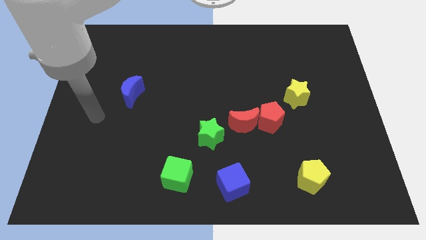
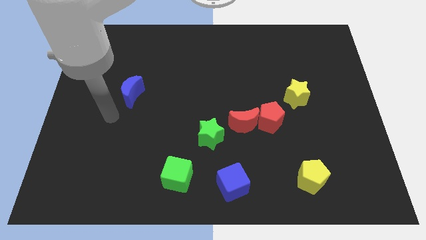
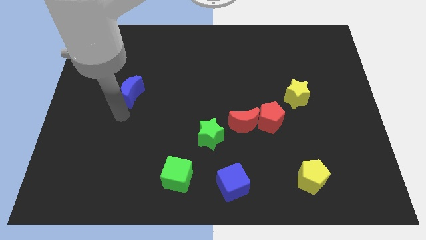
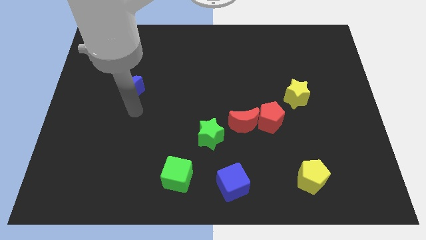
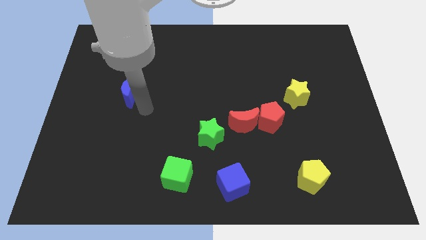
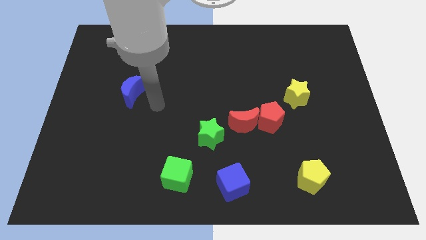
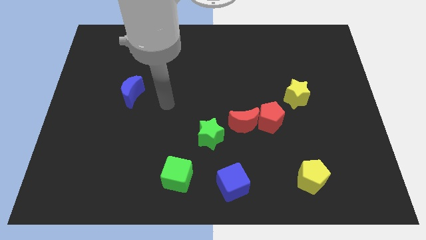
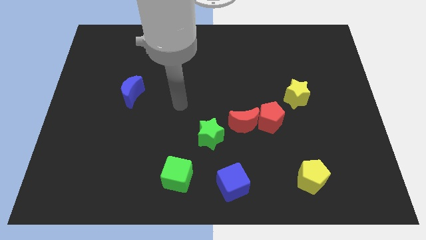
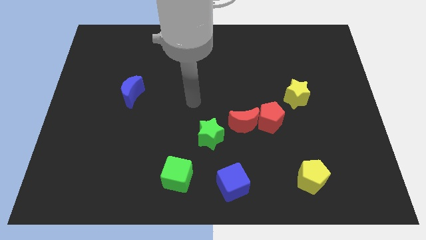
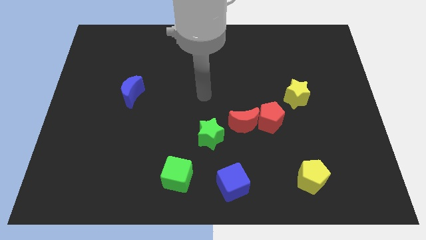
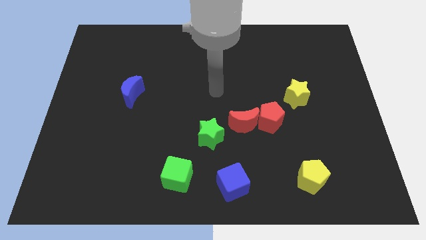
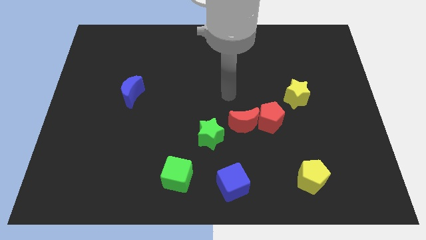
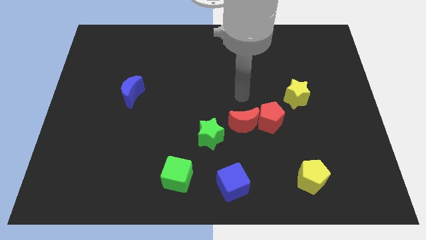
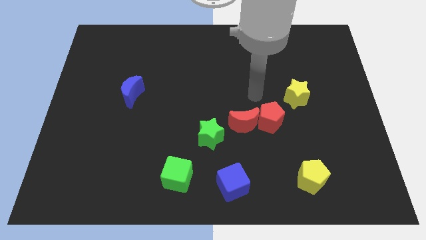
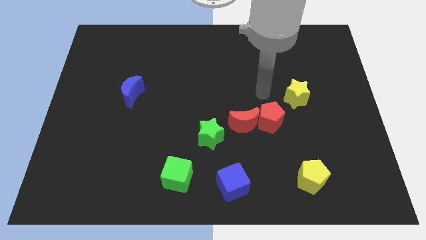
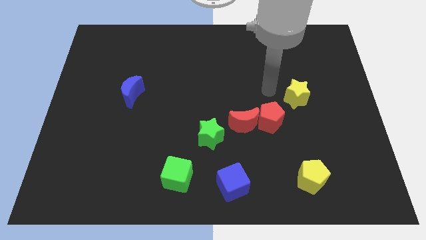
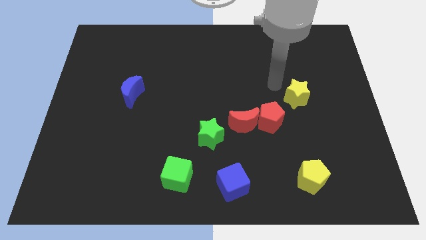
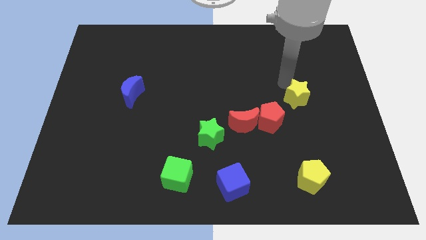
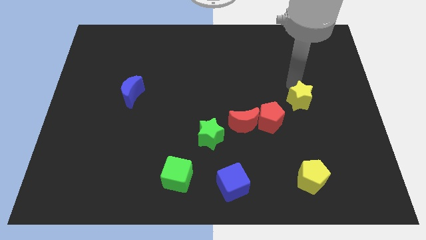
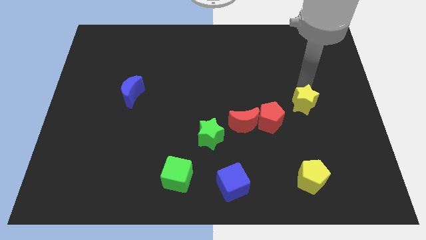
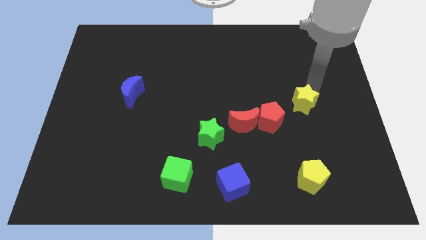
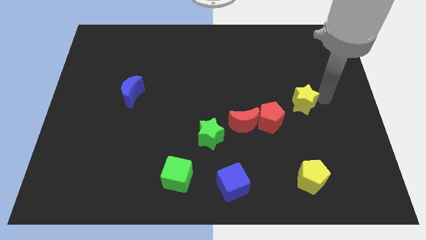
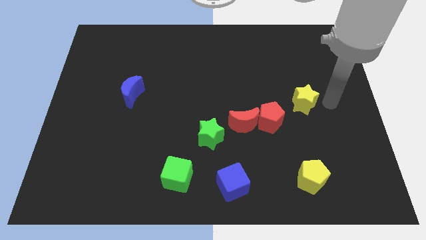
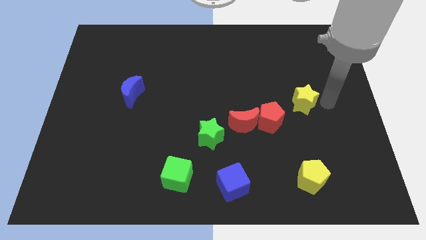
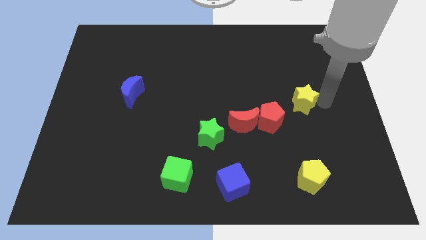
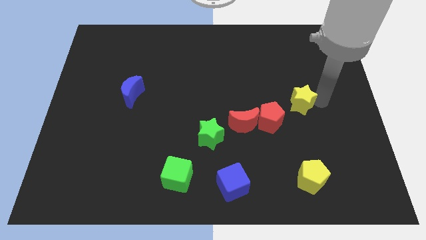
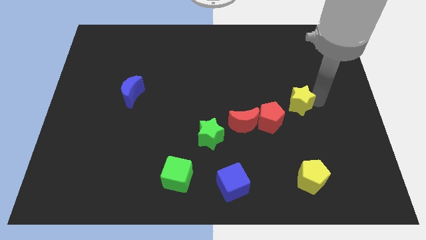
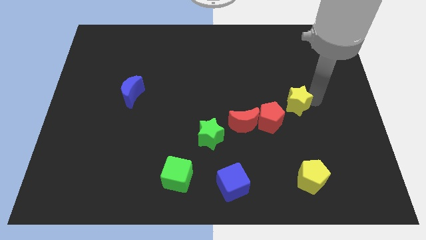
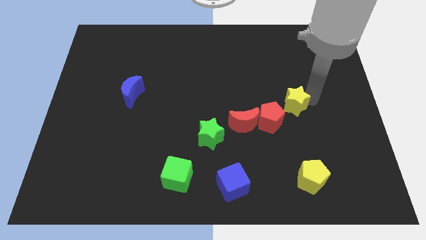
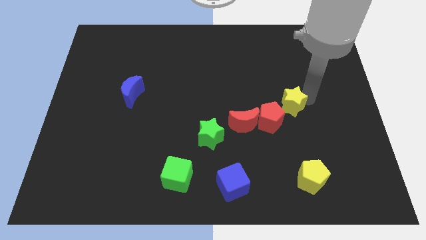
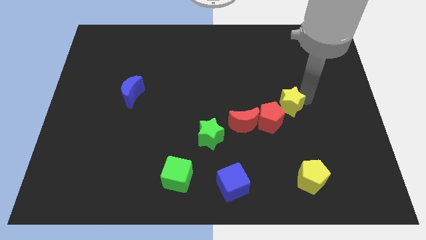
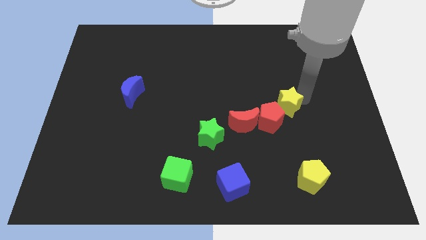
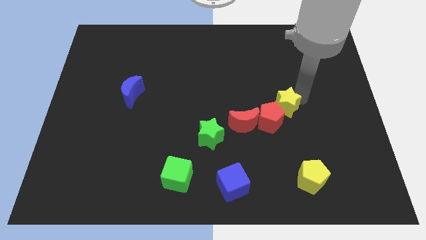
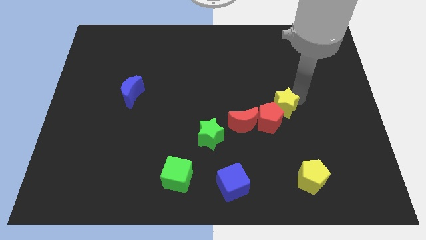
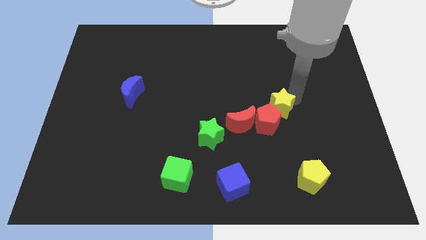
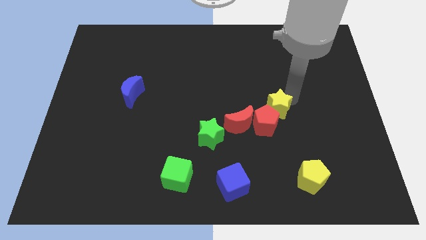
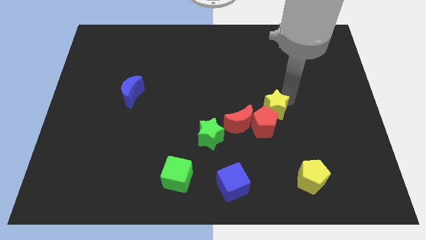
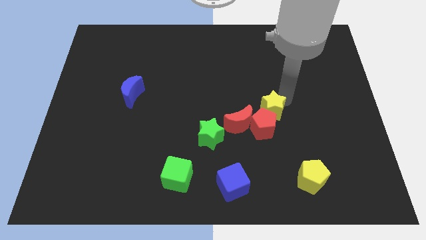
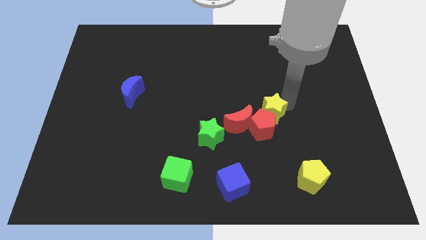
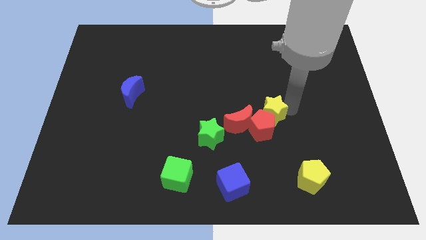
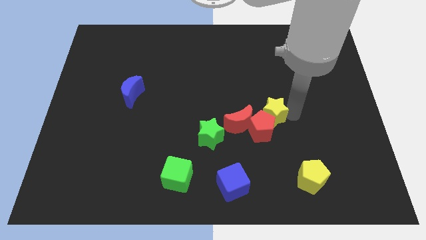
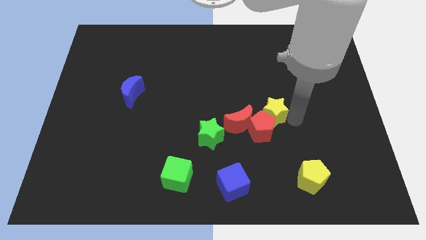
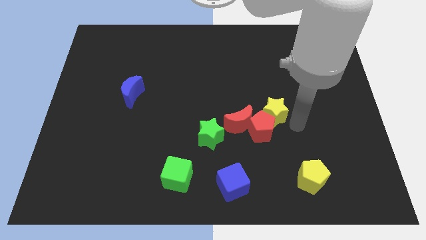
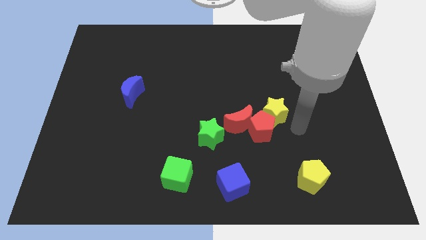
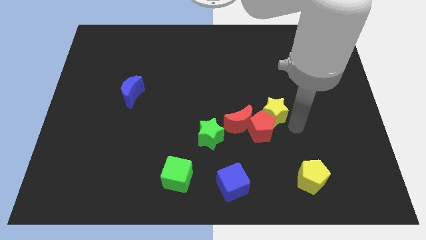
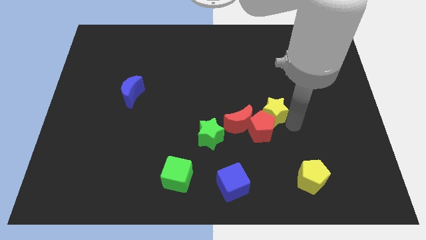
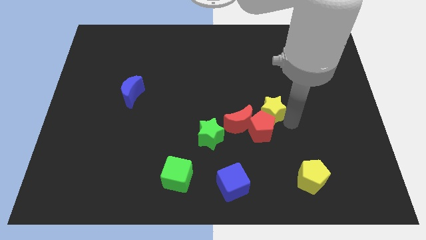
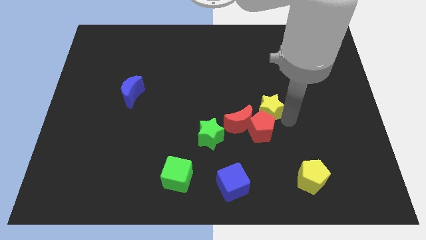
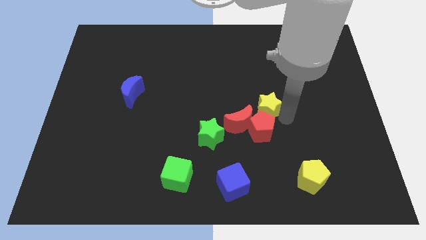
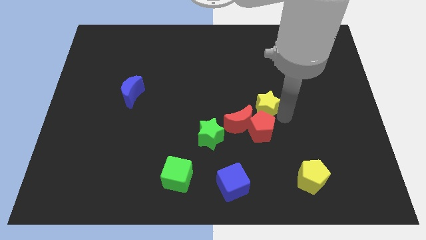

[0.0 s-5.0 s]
push the yellow star to the left somewhat

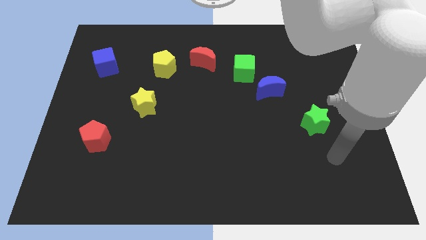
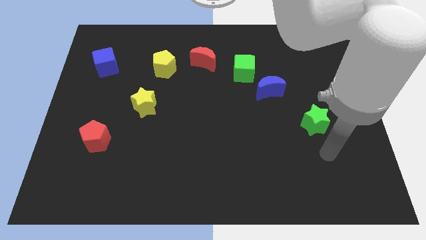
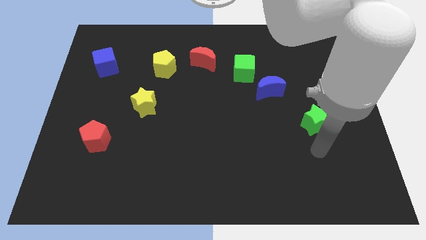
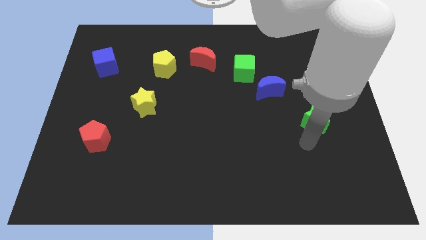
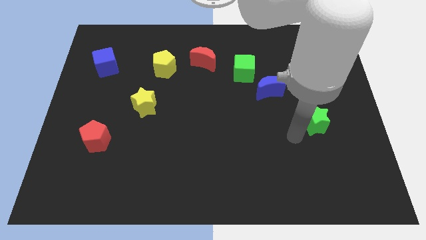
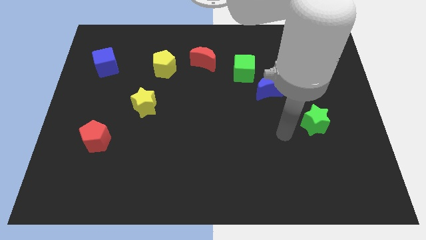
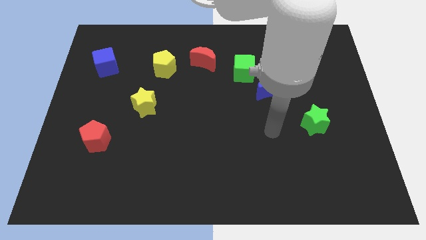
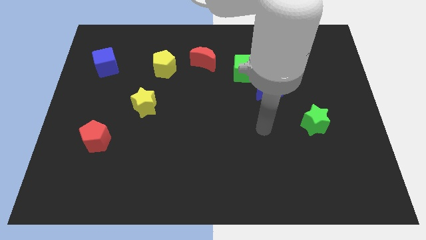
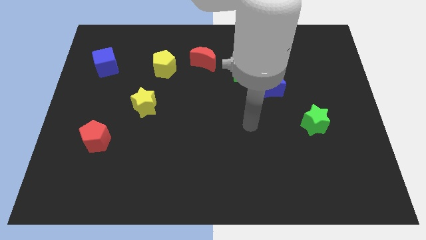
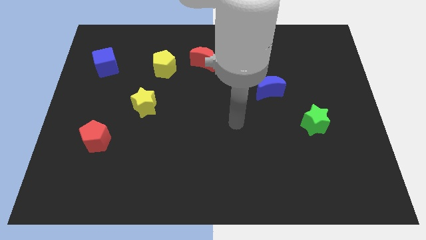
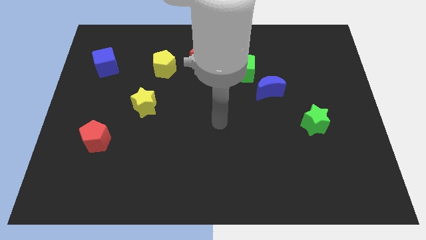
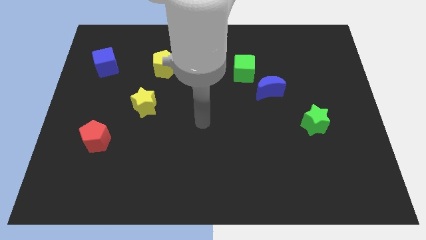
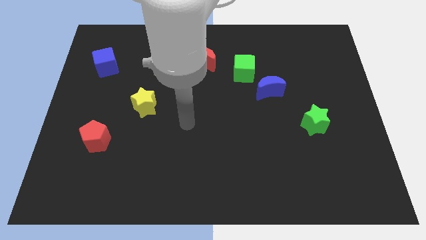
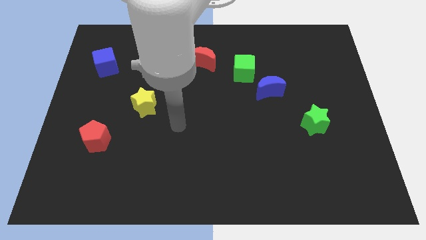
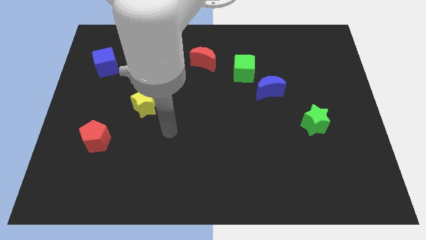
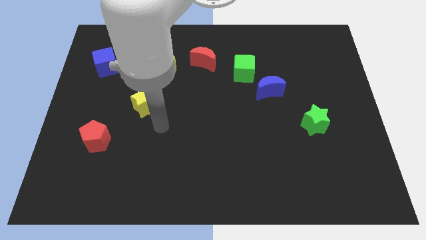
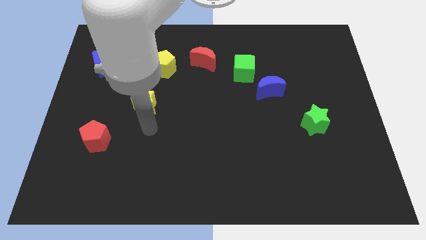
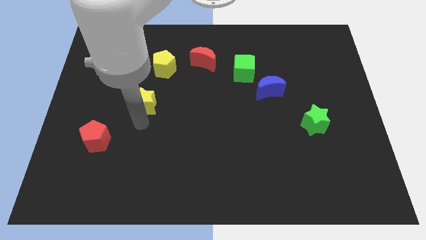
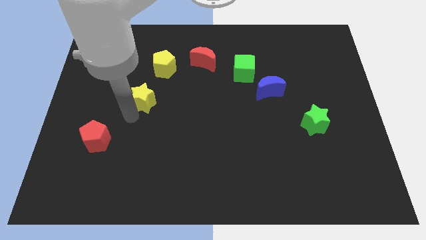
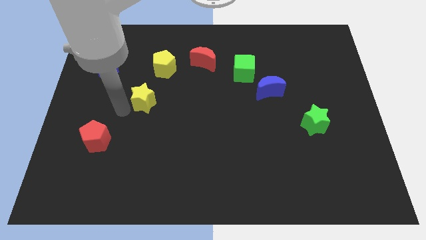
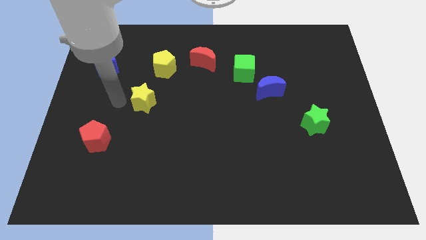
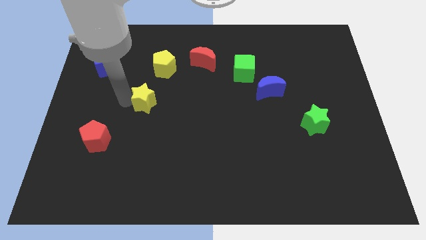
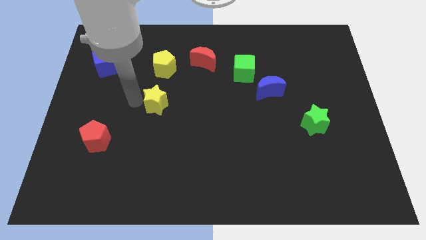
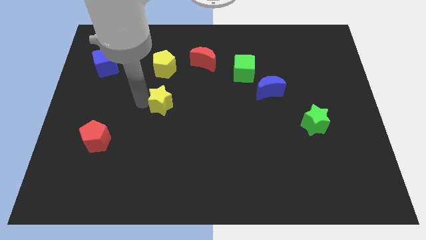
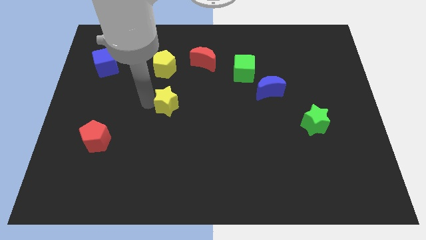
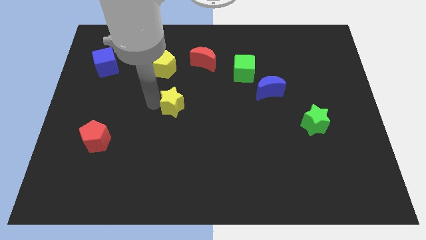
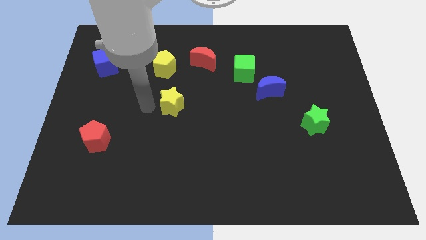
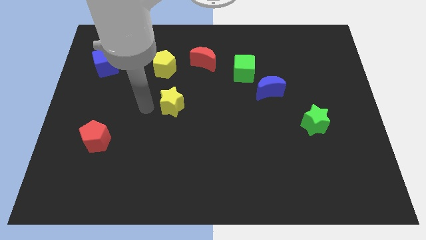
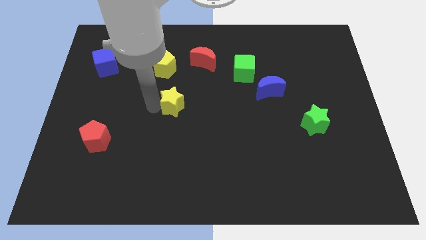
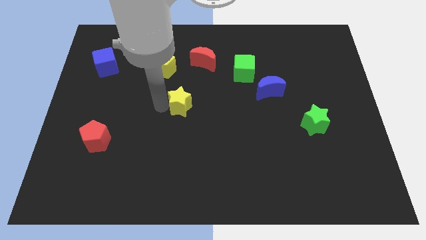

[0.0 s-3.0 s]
move the yellow star slightly to the right
